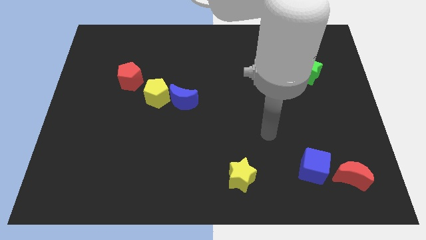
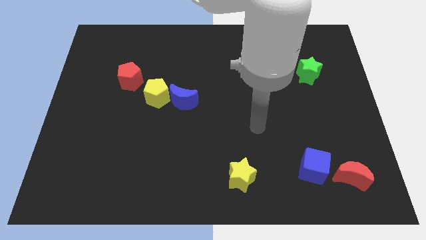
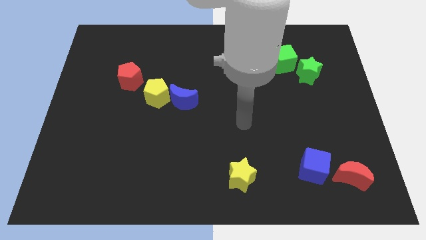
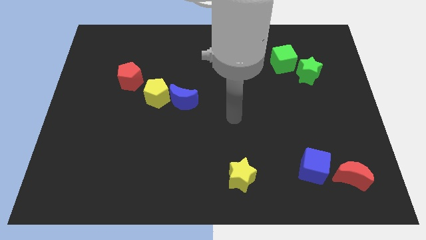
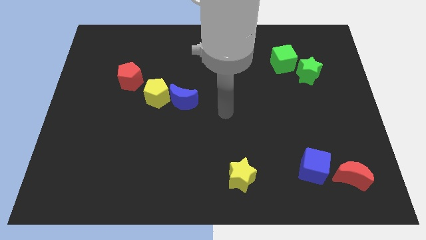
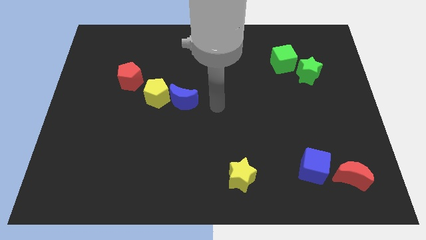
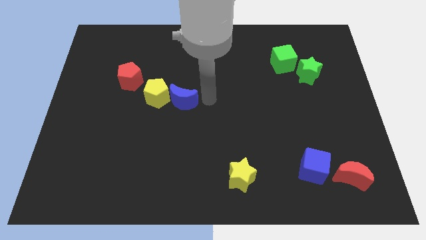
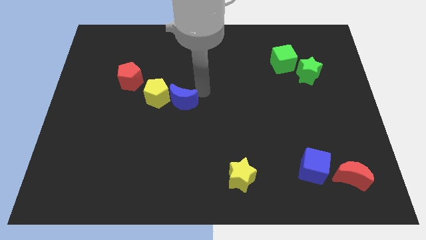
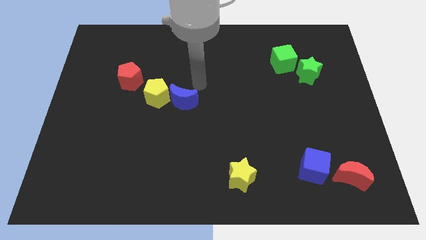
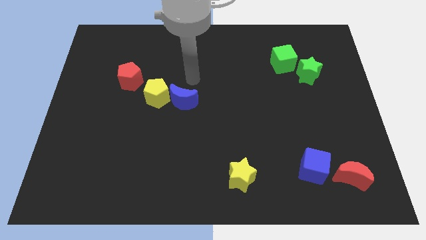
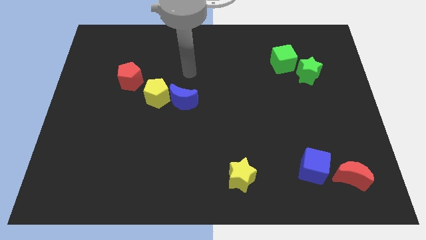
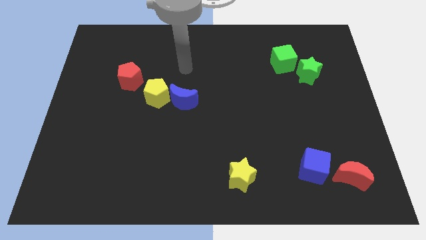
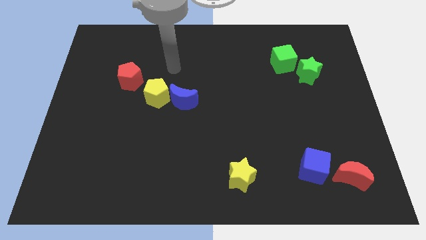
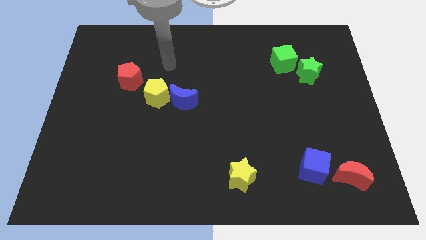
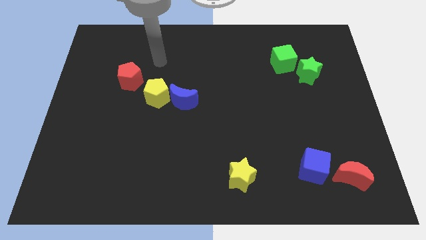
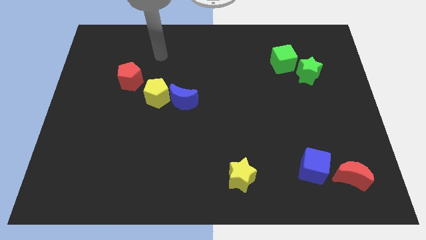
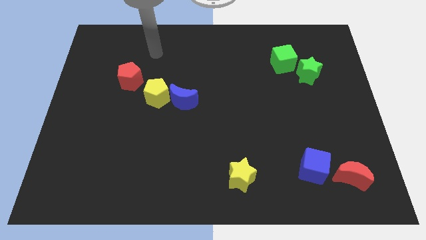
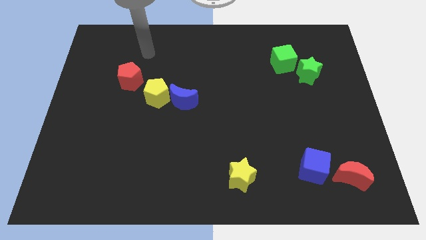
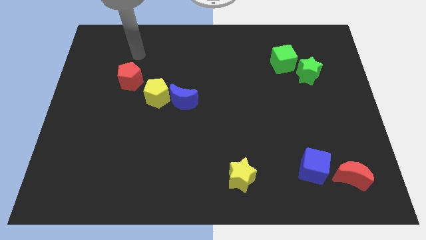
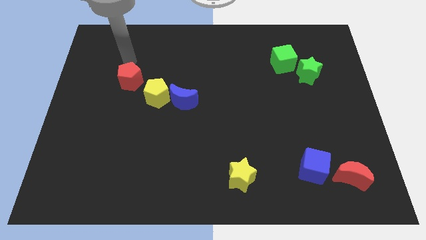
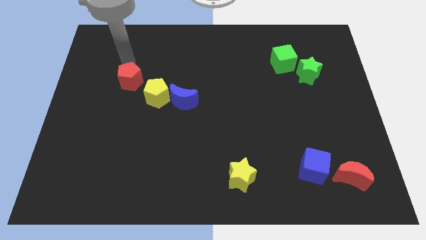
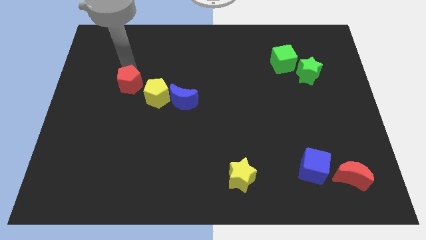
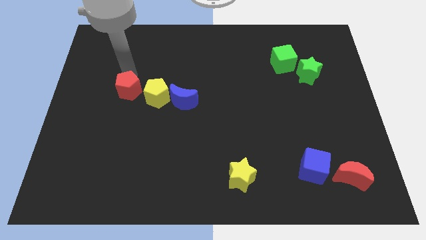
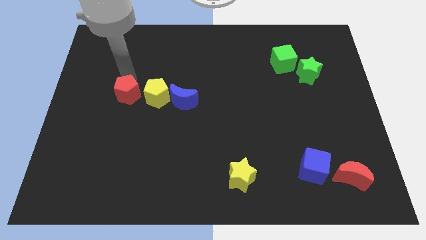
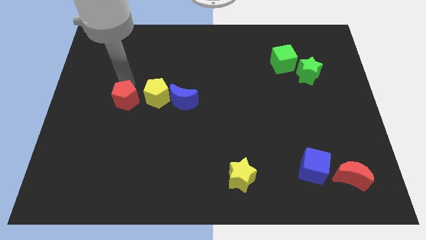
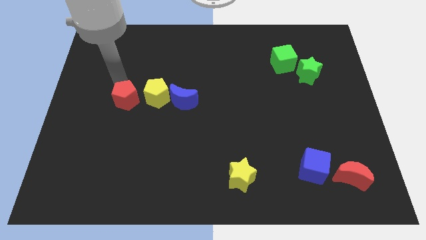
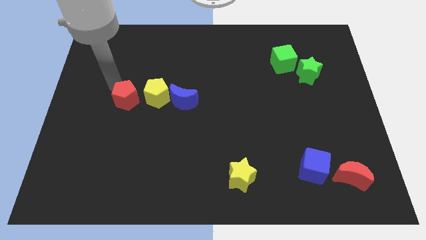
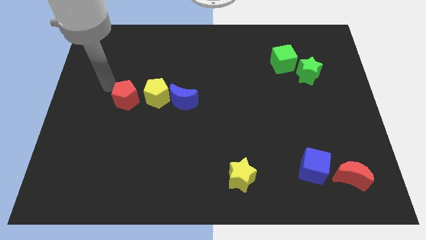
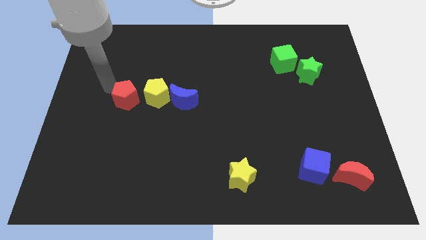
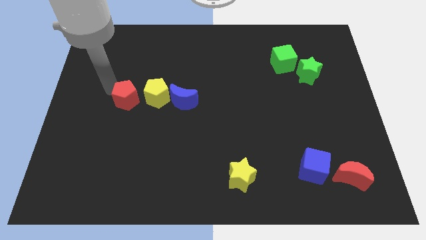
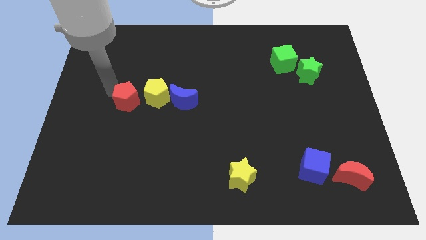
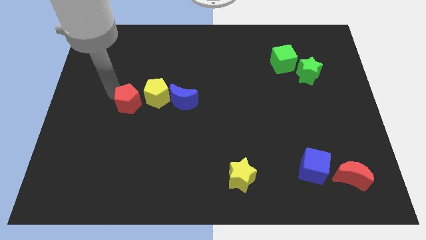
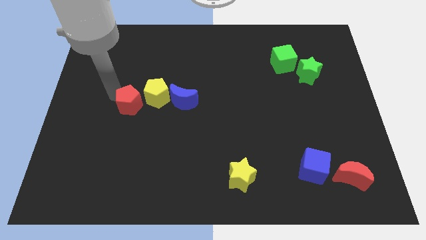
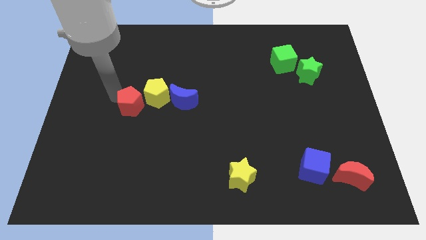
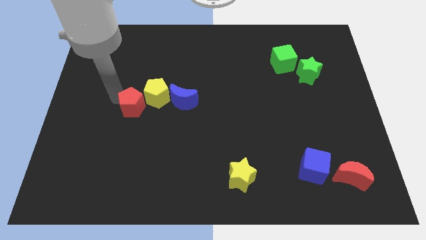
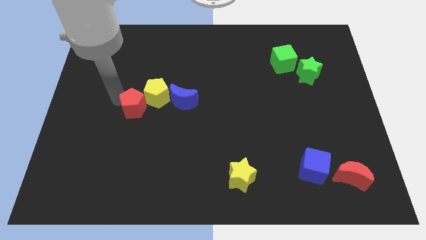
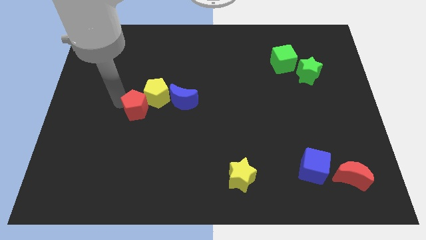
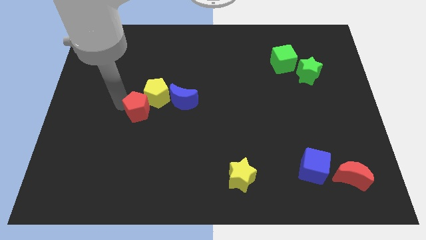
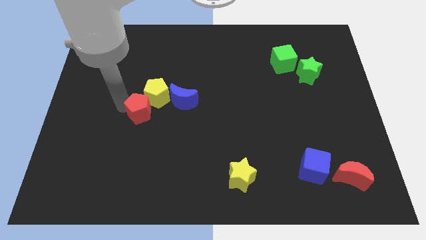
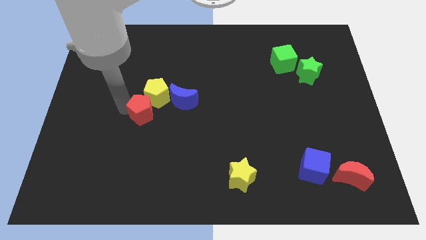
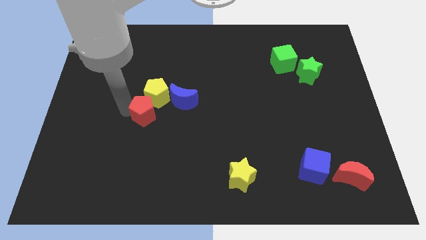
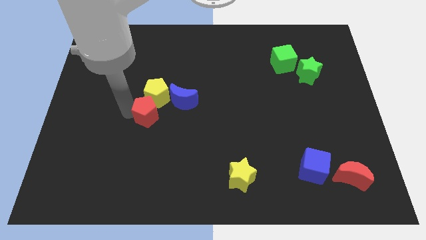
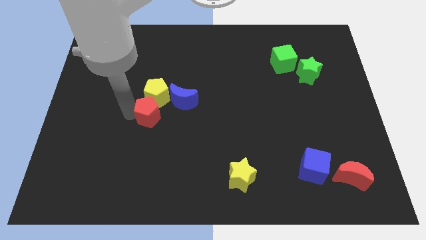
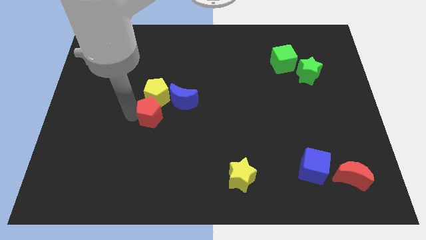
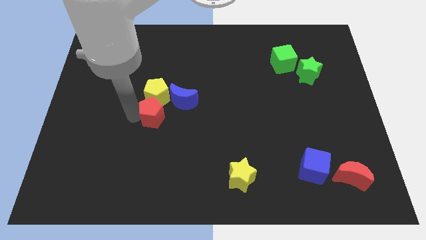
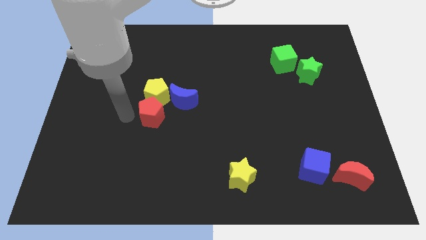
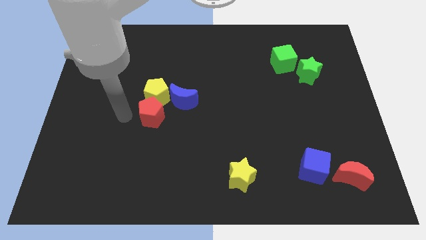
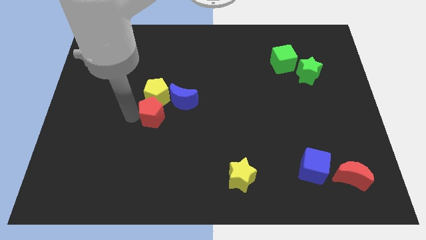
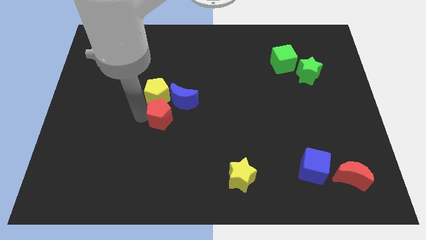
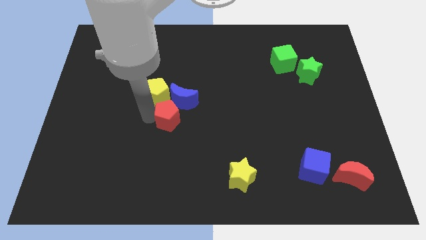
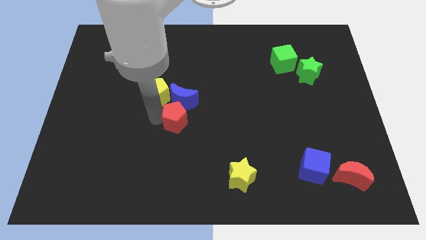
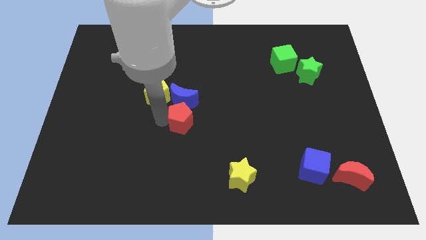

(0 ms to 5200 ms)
push the red pentagon to the bottom right side of the blue moon

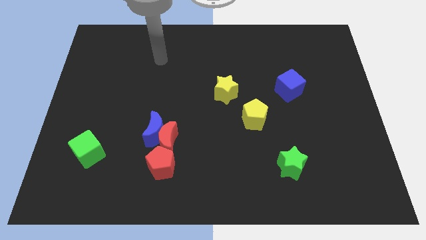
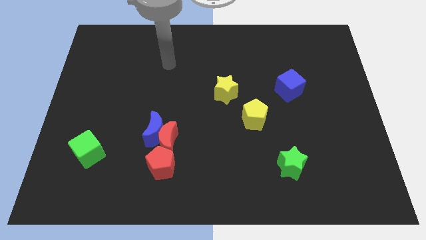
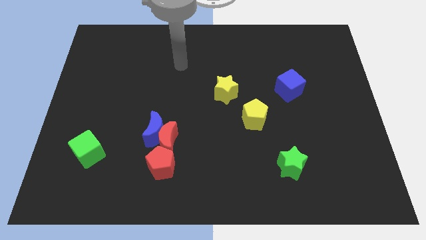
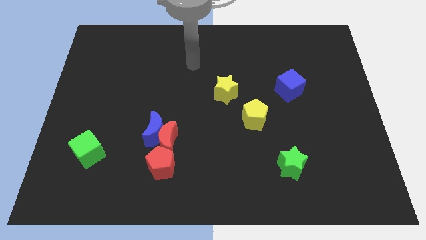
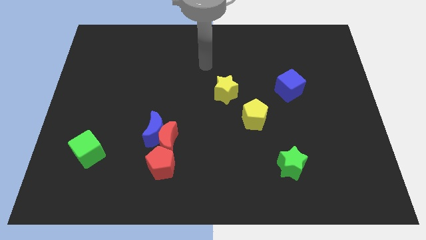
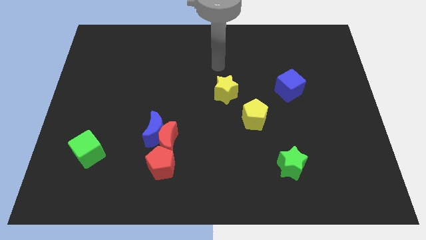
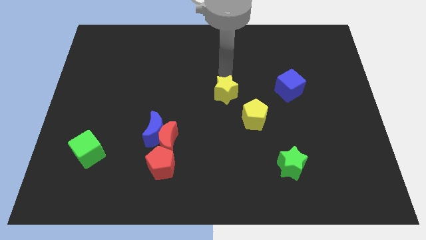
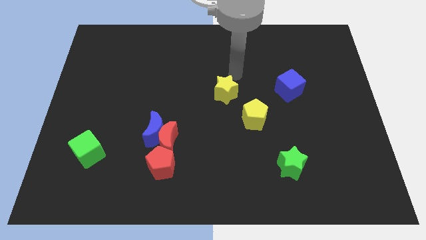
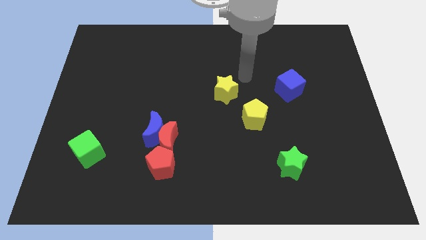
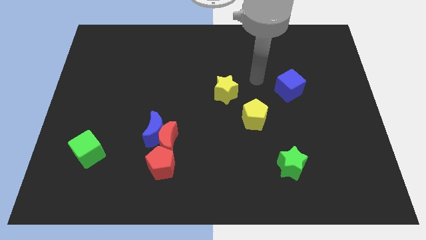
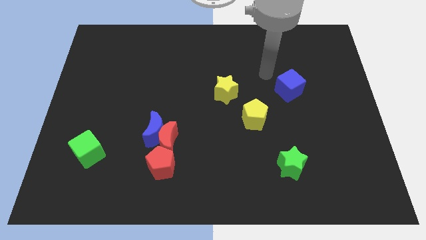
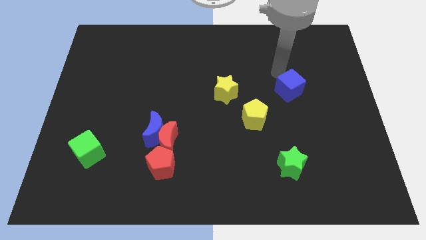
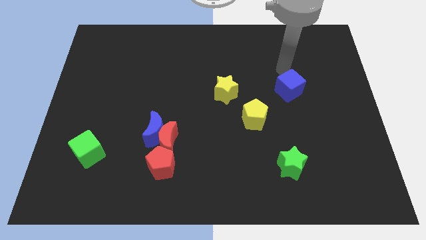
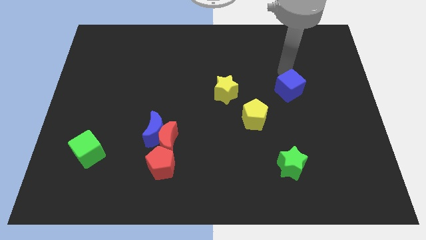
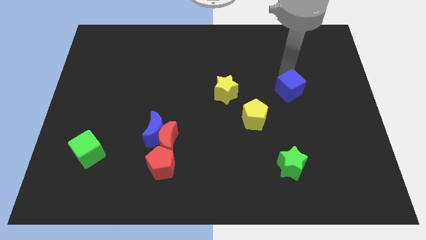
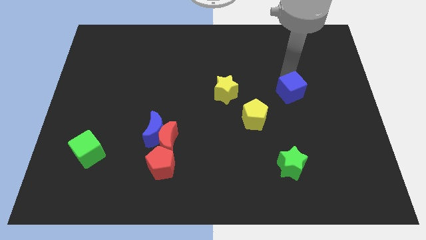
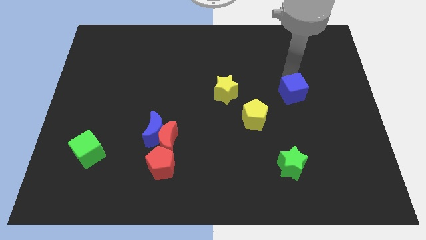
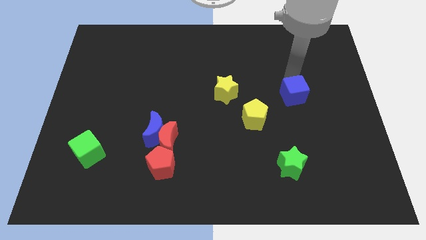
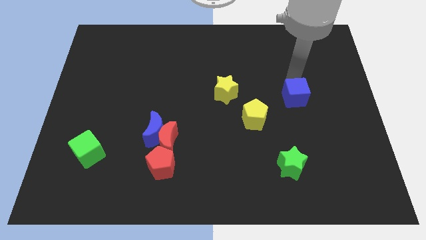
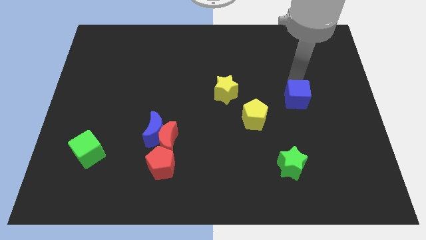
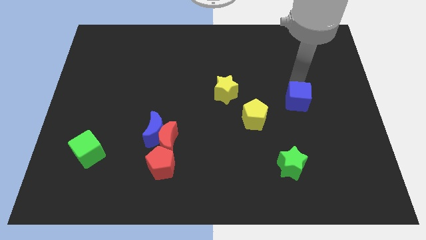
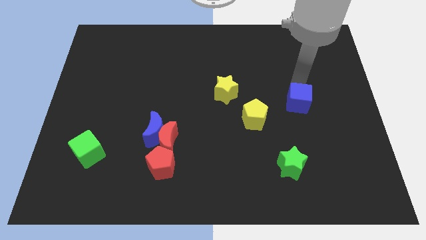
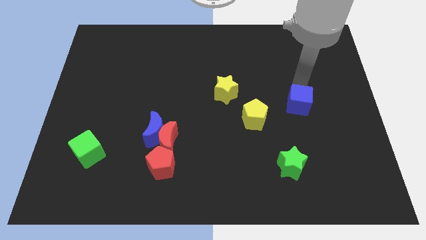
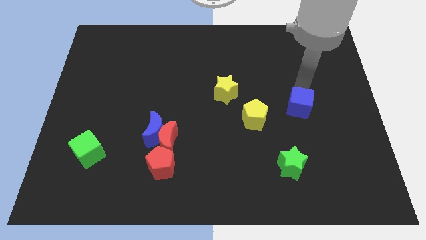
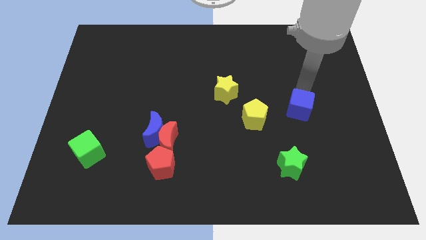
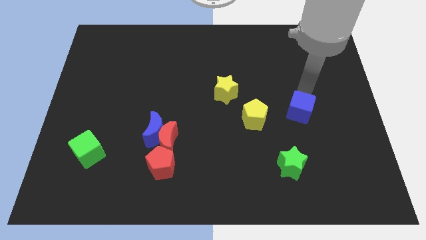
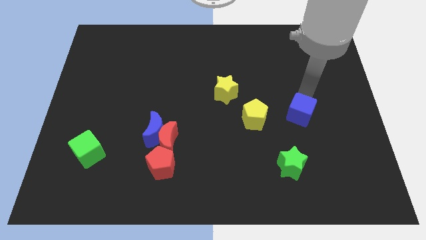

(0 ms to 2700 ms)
put the blue cube to the top side of the green star
